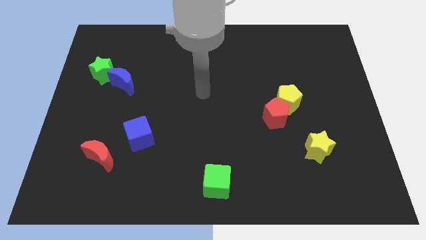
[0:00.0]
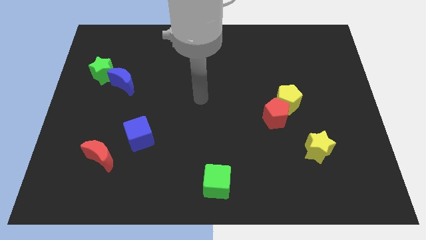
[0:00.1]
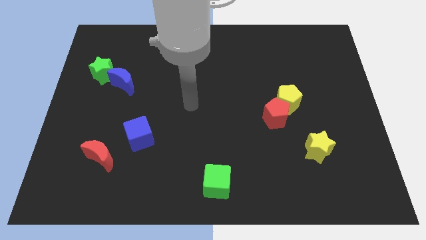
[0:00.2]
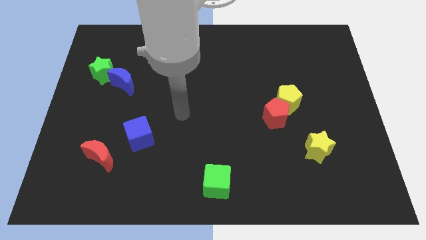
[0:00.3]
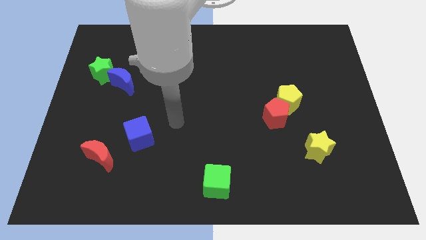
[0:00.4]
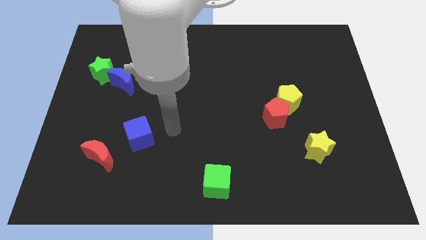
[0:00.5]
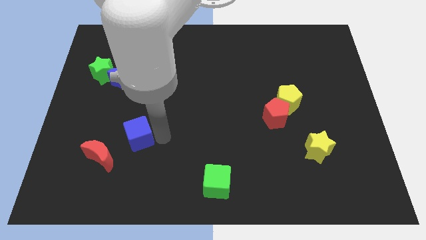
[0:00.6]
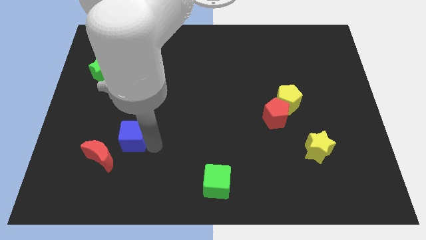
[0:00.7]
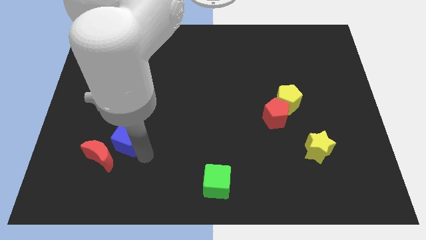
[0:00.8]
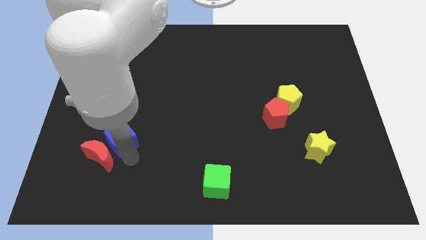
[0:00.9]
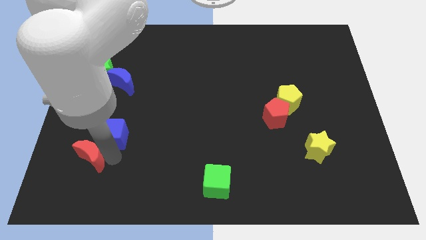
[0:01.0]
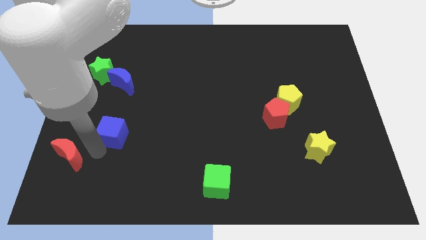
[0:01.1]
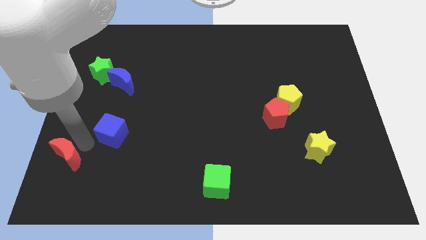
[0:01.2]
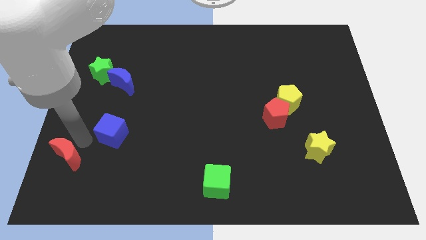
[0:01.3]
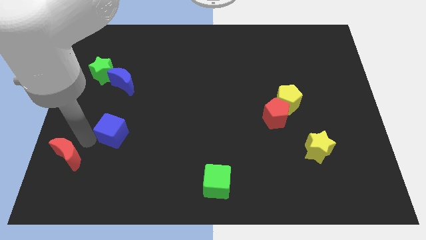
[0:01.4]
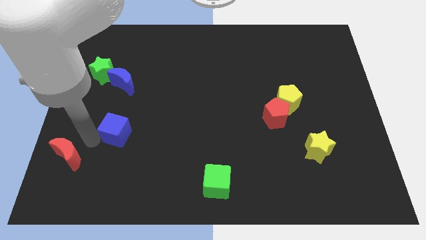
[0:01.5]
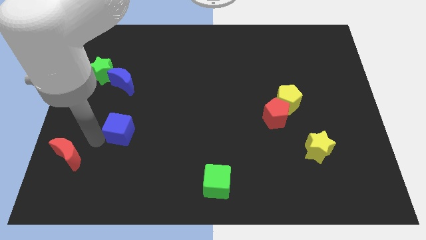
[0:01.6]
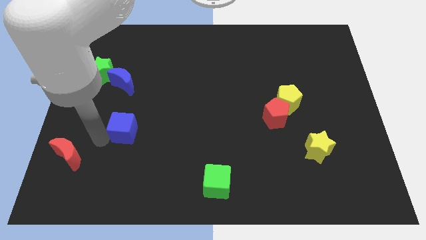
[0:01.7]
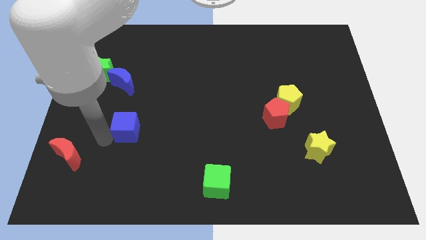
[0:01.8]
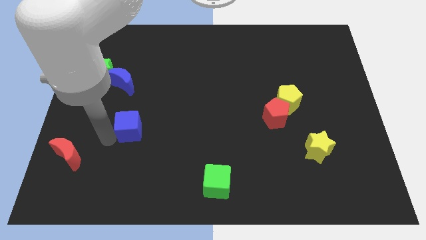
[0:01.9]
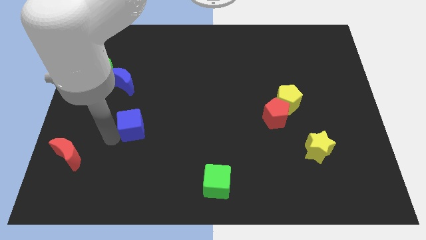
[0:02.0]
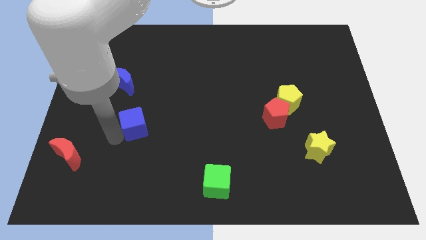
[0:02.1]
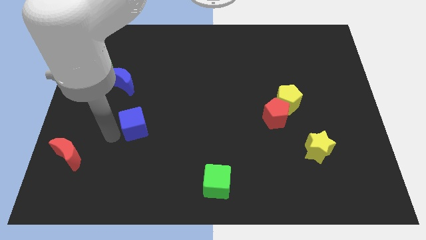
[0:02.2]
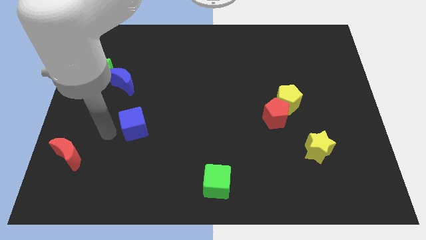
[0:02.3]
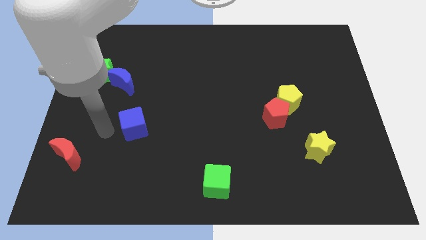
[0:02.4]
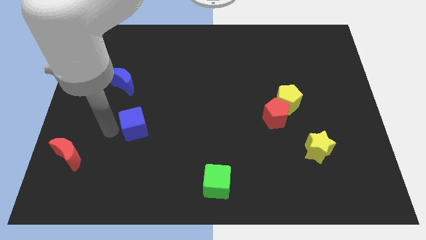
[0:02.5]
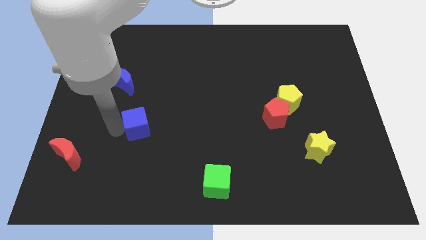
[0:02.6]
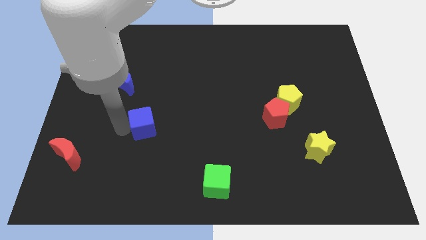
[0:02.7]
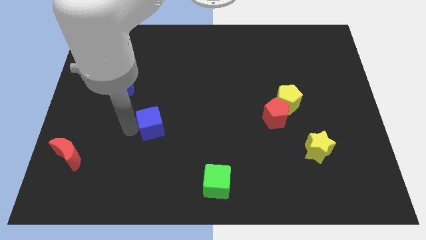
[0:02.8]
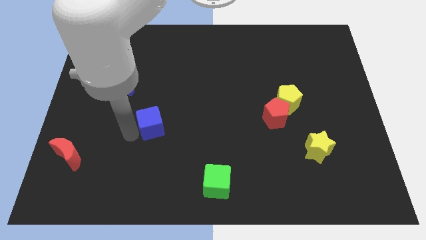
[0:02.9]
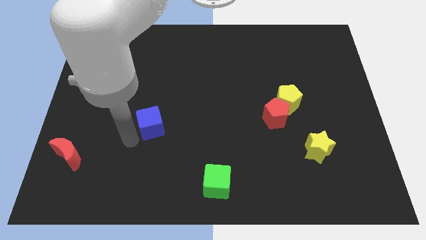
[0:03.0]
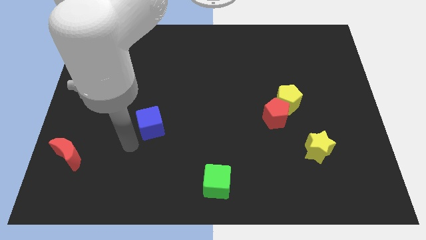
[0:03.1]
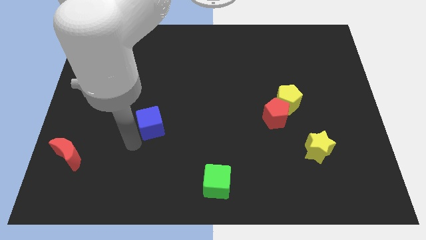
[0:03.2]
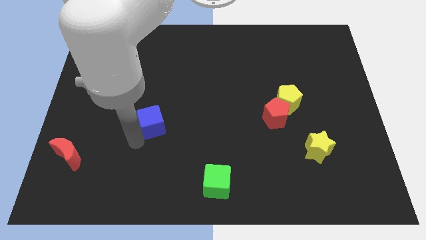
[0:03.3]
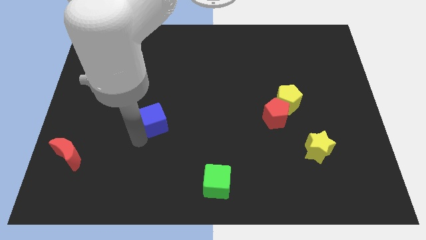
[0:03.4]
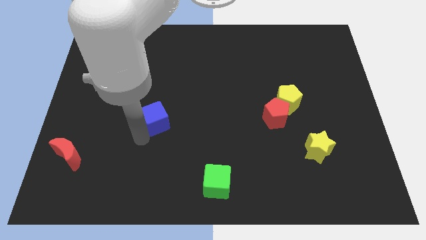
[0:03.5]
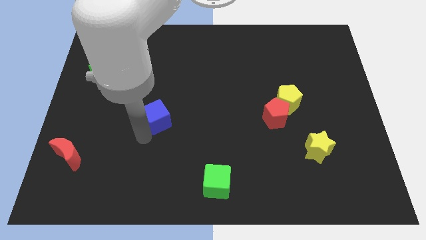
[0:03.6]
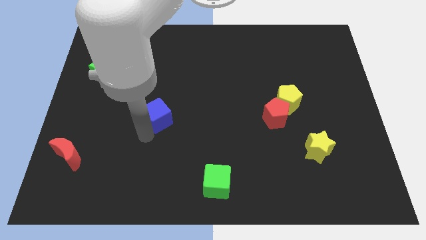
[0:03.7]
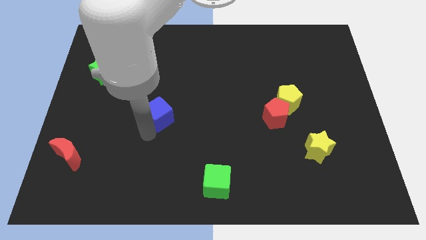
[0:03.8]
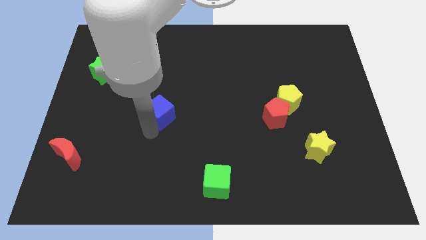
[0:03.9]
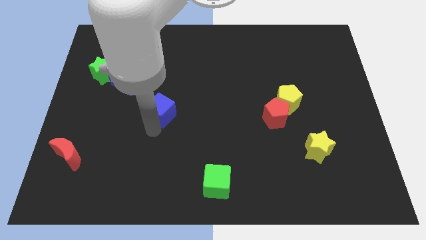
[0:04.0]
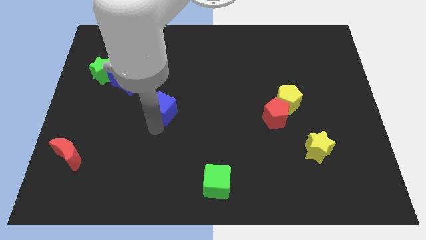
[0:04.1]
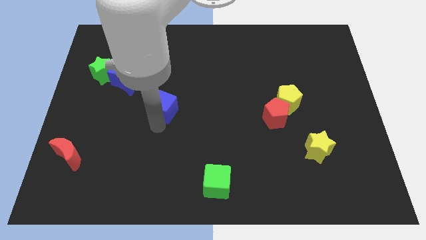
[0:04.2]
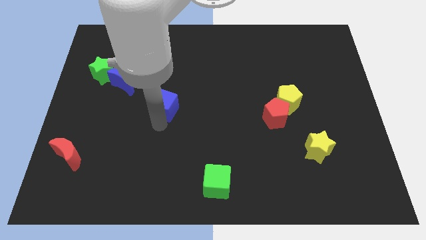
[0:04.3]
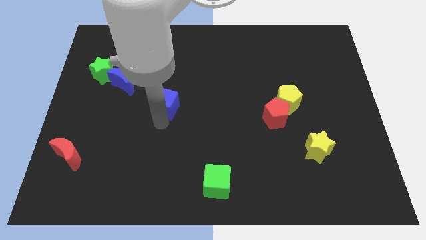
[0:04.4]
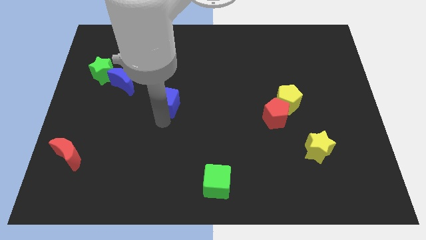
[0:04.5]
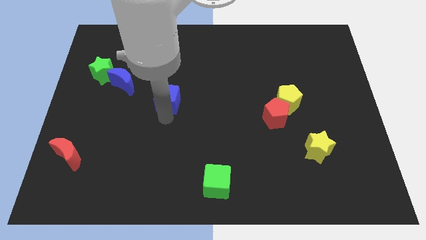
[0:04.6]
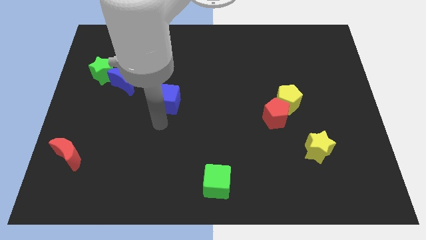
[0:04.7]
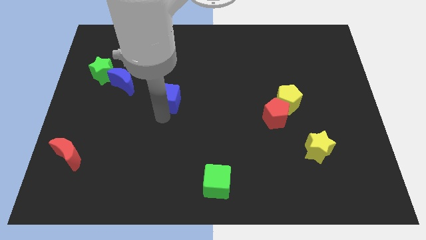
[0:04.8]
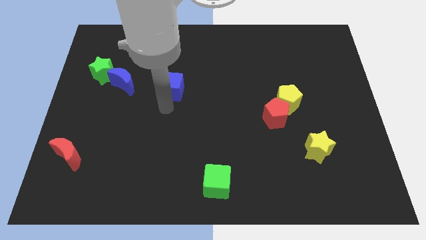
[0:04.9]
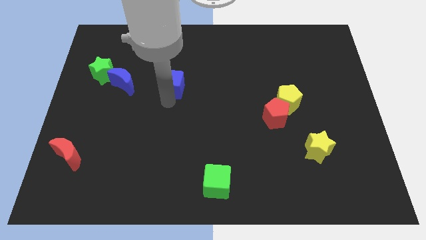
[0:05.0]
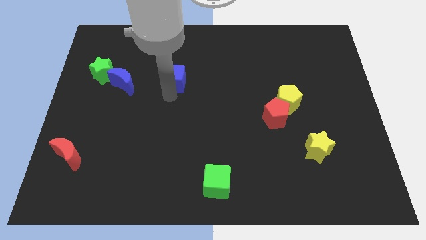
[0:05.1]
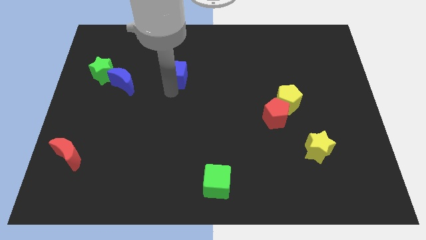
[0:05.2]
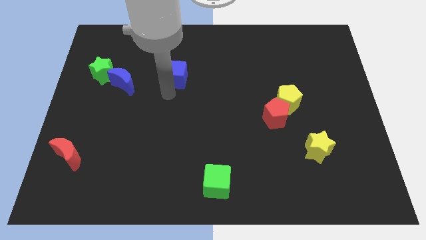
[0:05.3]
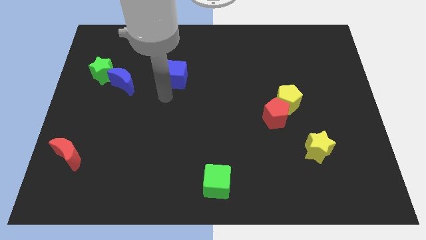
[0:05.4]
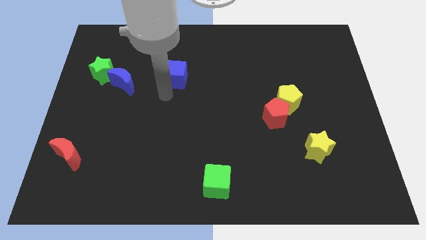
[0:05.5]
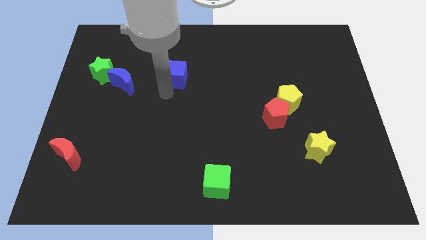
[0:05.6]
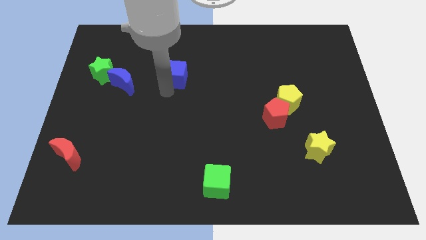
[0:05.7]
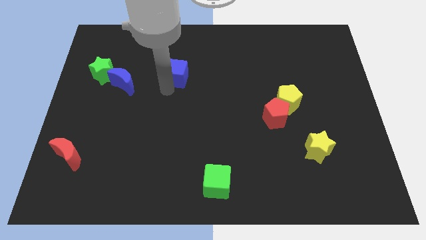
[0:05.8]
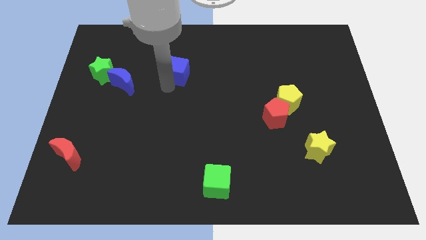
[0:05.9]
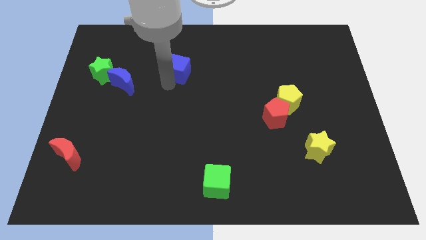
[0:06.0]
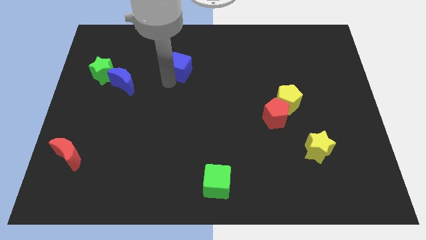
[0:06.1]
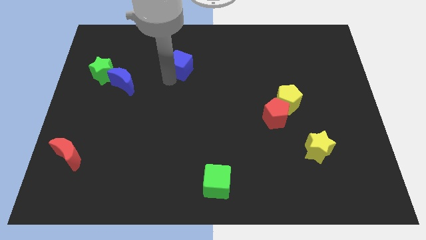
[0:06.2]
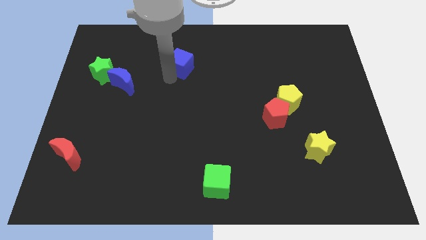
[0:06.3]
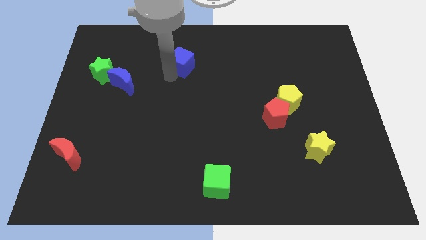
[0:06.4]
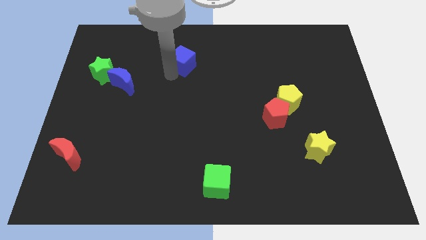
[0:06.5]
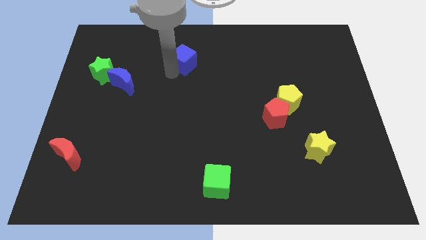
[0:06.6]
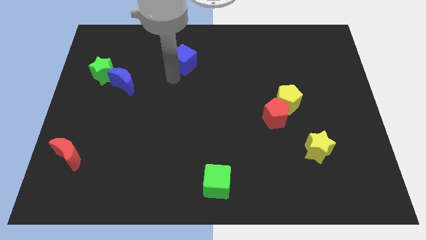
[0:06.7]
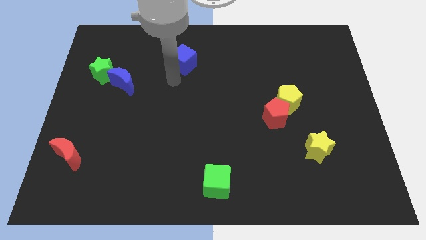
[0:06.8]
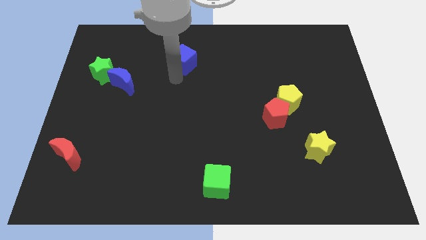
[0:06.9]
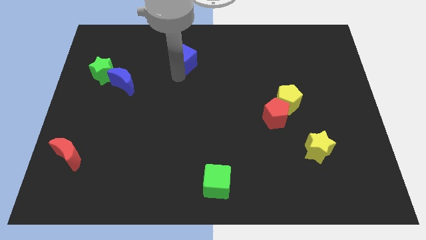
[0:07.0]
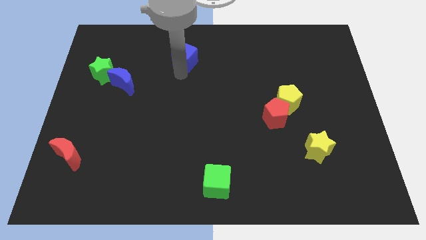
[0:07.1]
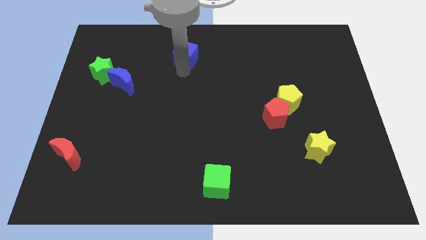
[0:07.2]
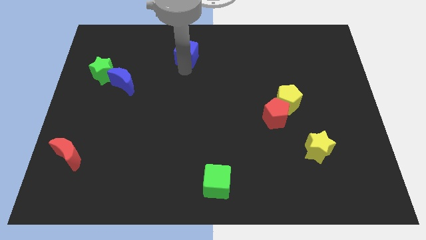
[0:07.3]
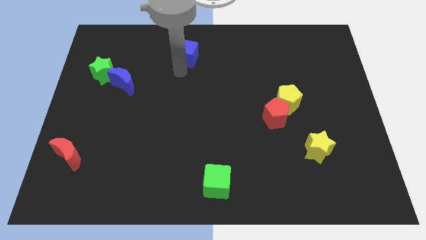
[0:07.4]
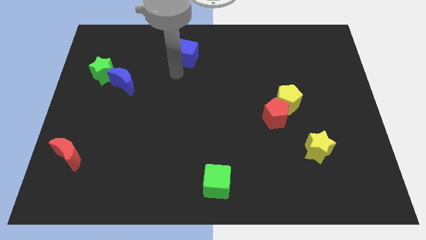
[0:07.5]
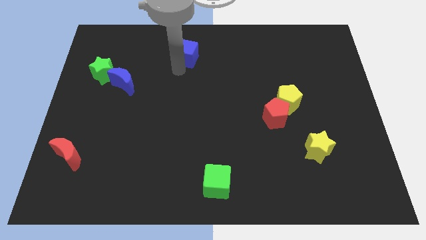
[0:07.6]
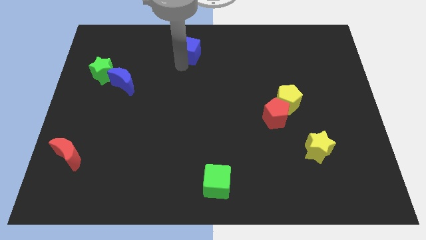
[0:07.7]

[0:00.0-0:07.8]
push the blue cube to the top side
